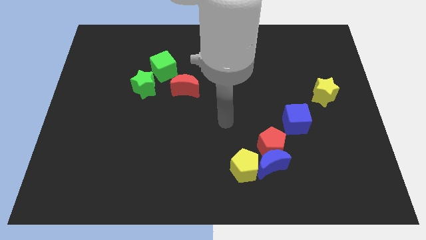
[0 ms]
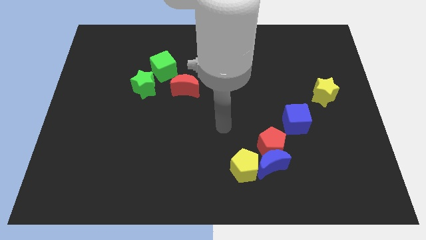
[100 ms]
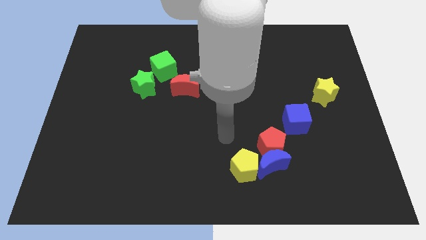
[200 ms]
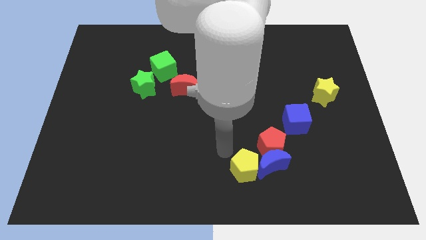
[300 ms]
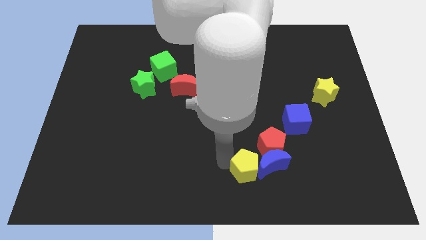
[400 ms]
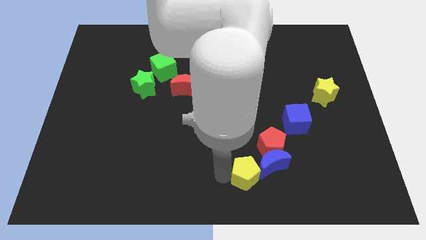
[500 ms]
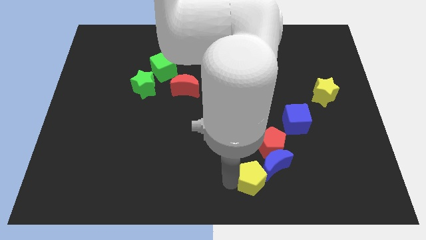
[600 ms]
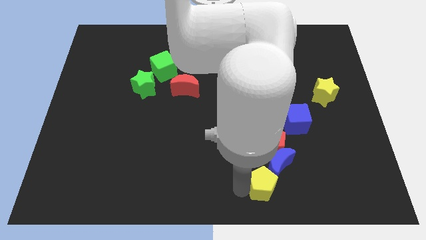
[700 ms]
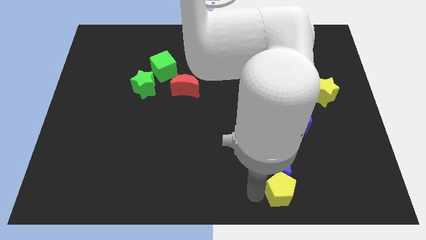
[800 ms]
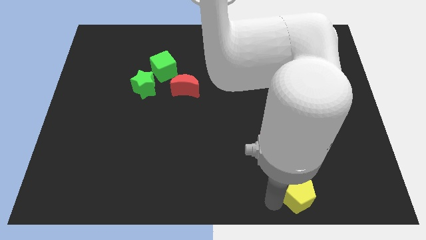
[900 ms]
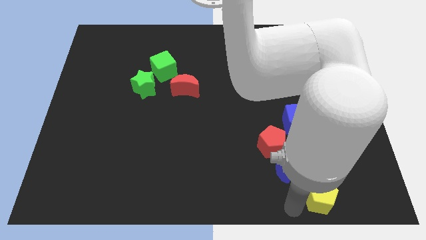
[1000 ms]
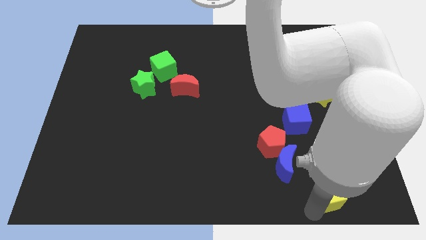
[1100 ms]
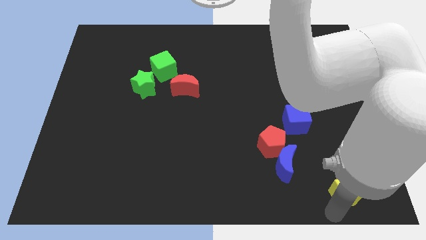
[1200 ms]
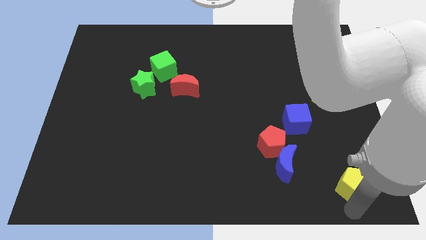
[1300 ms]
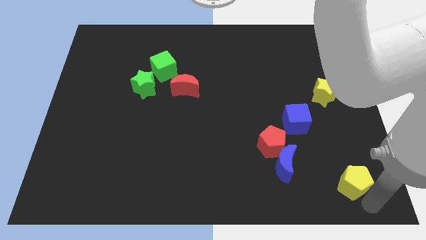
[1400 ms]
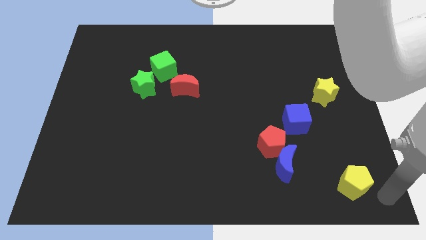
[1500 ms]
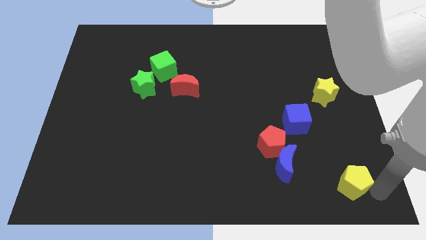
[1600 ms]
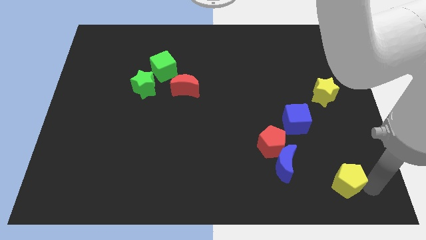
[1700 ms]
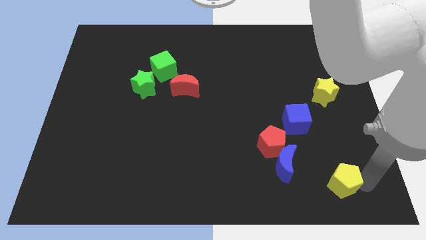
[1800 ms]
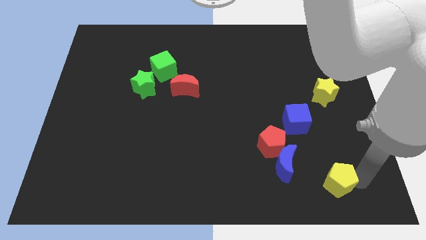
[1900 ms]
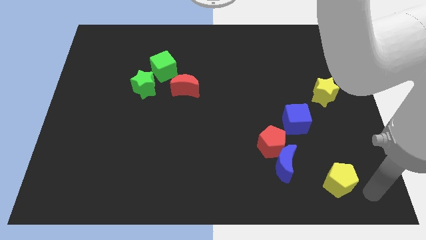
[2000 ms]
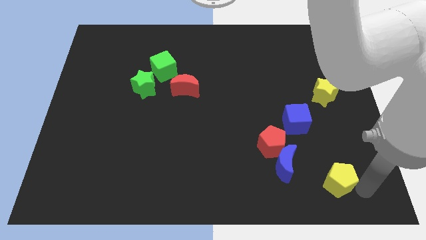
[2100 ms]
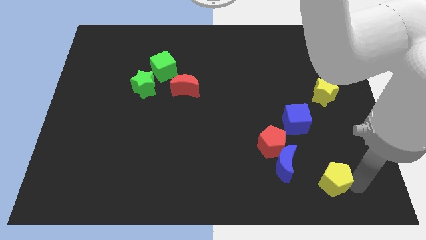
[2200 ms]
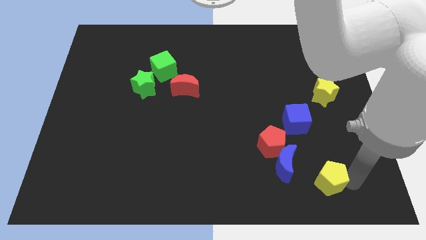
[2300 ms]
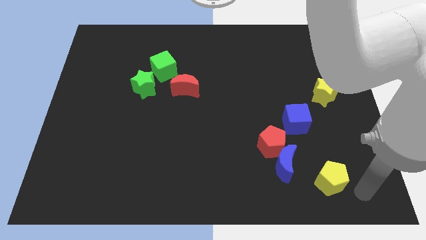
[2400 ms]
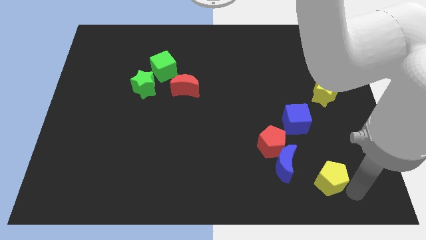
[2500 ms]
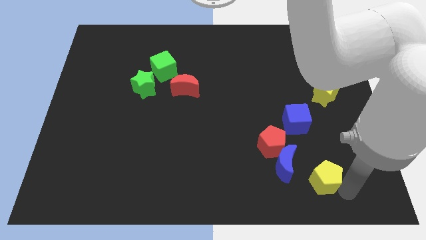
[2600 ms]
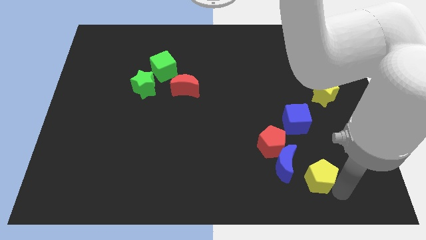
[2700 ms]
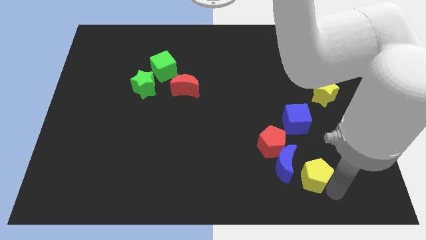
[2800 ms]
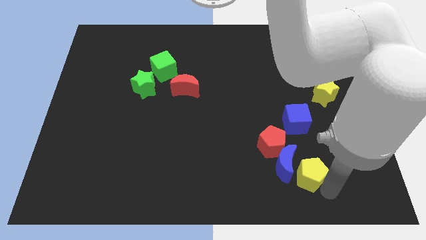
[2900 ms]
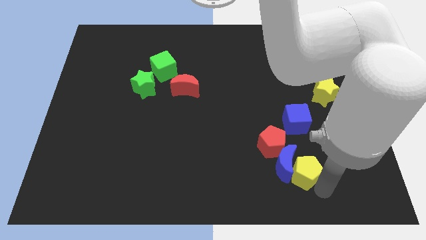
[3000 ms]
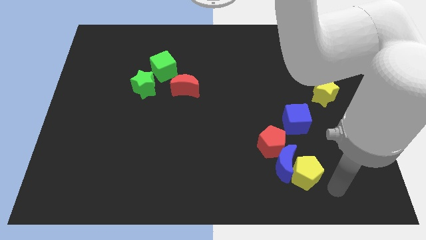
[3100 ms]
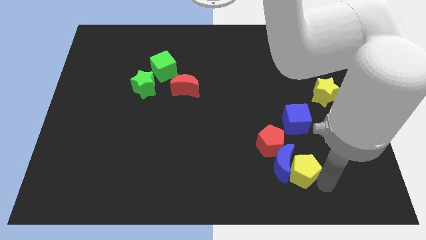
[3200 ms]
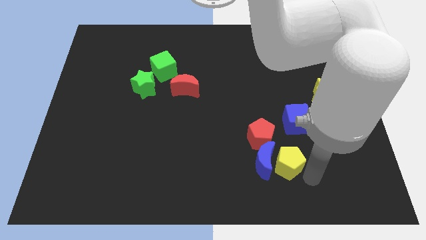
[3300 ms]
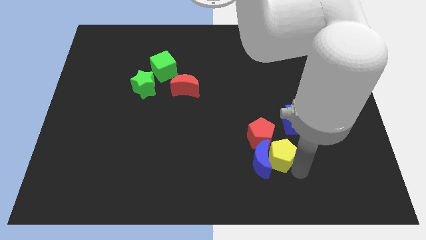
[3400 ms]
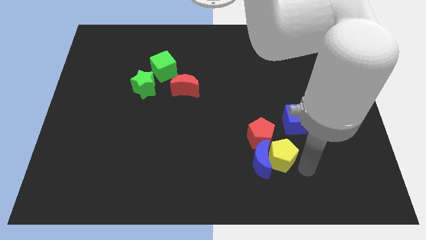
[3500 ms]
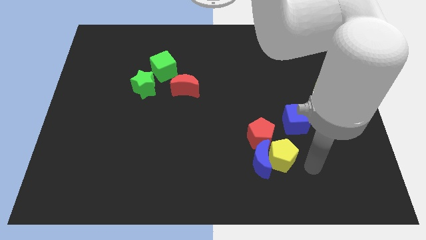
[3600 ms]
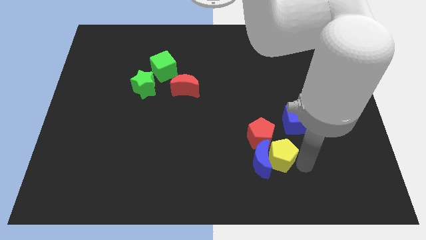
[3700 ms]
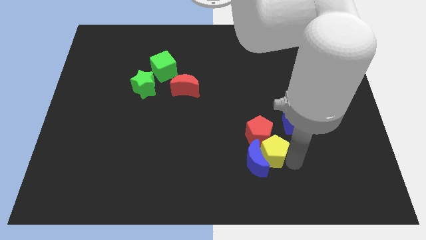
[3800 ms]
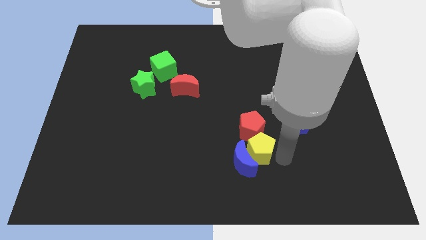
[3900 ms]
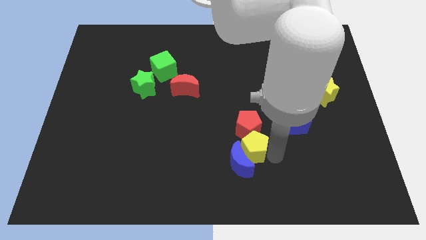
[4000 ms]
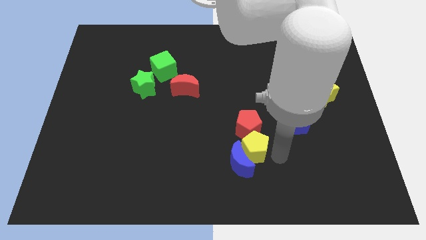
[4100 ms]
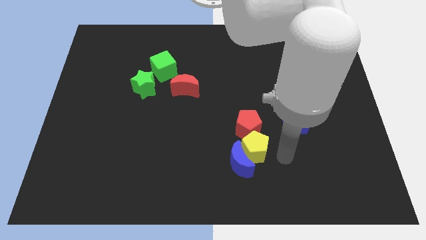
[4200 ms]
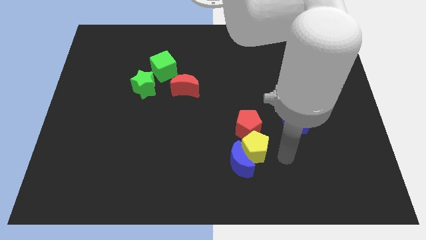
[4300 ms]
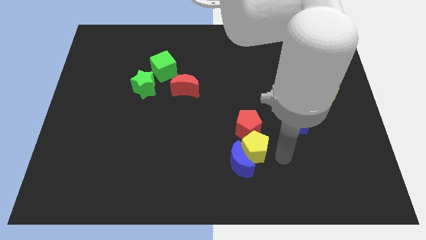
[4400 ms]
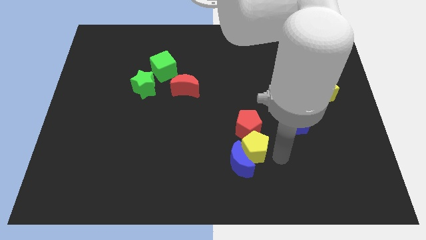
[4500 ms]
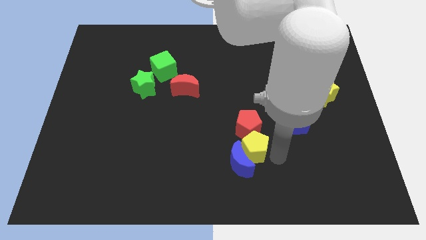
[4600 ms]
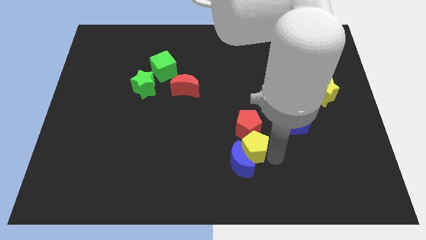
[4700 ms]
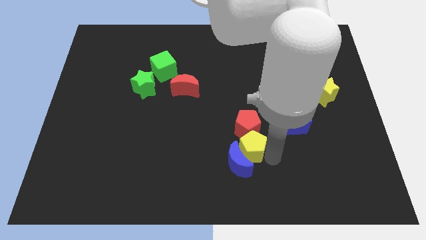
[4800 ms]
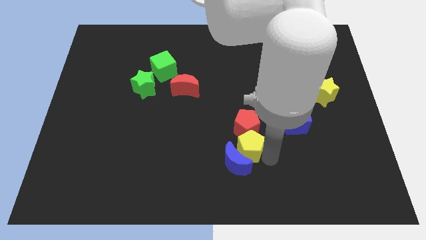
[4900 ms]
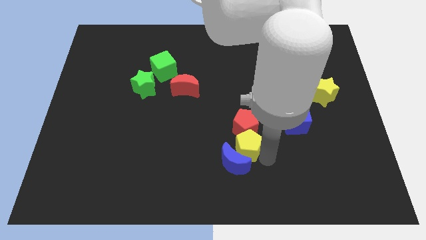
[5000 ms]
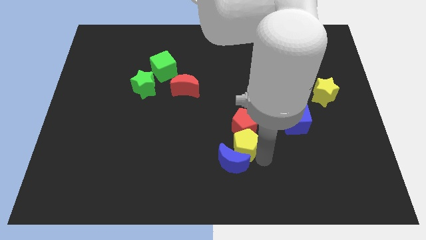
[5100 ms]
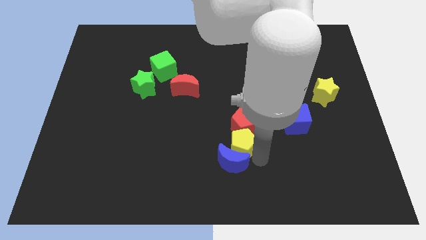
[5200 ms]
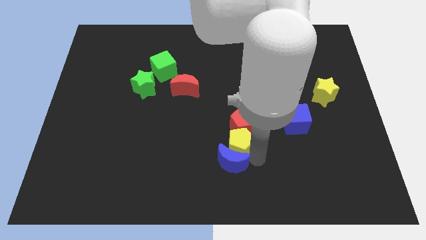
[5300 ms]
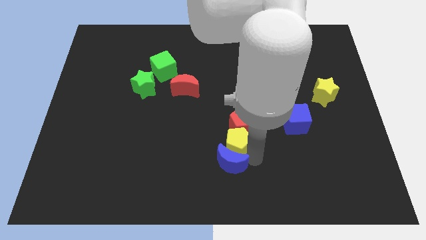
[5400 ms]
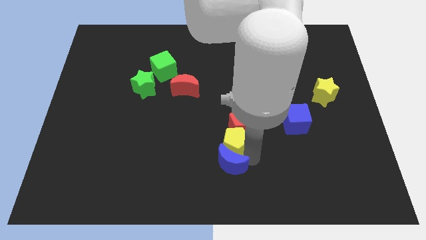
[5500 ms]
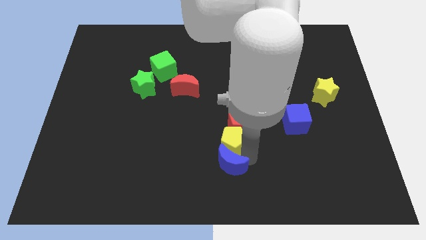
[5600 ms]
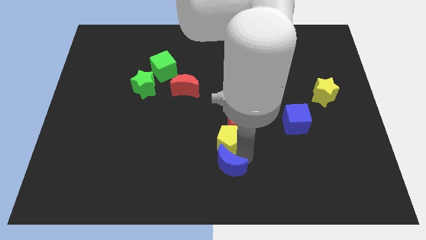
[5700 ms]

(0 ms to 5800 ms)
move the yellow pentagon to the middle

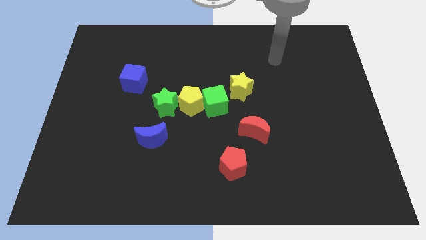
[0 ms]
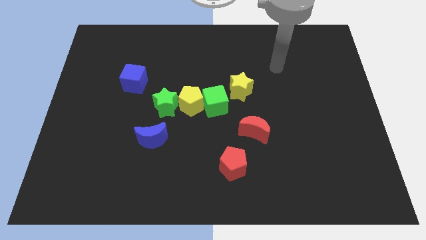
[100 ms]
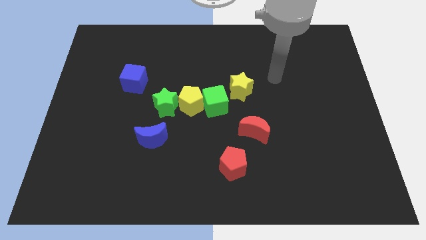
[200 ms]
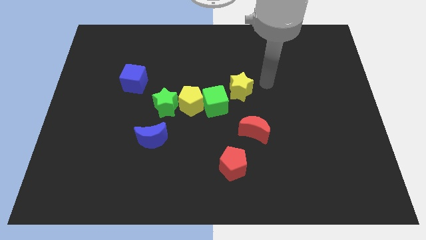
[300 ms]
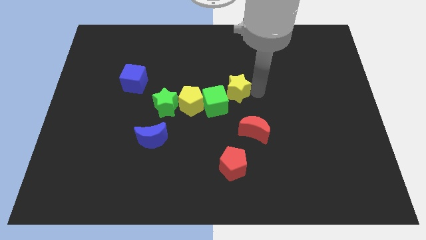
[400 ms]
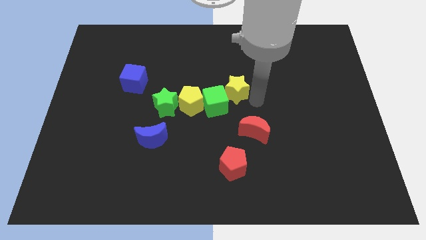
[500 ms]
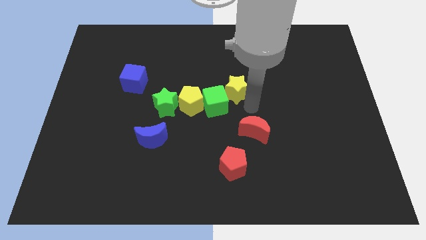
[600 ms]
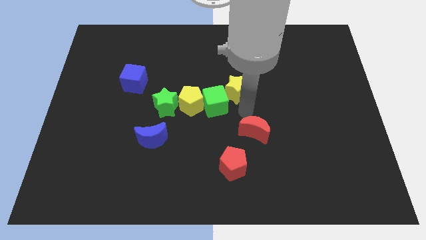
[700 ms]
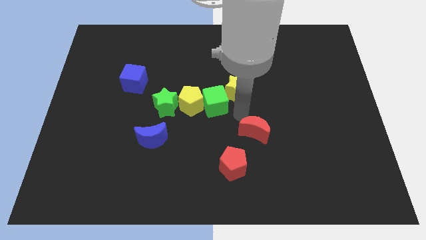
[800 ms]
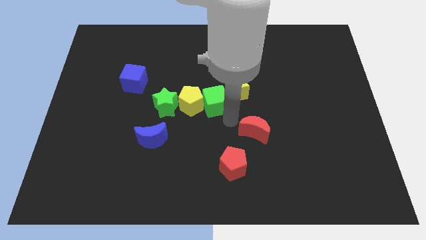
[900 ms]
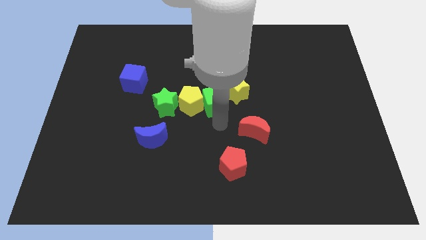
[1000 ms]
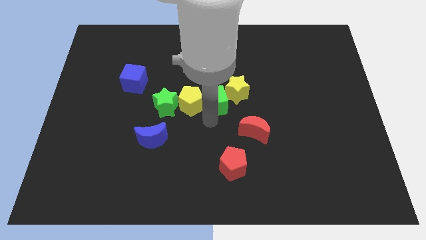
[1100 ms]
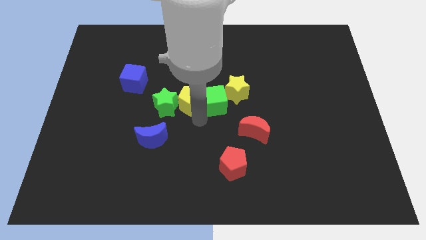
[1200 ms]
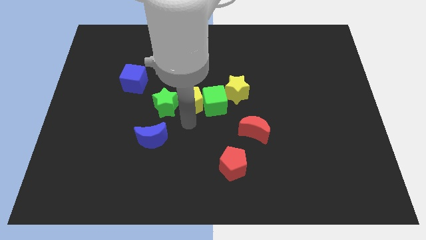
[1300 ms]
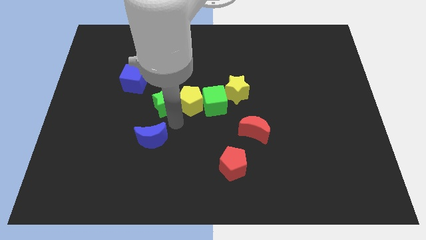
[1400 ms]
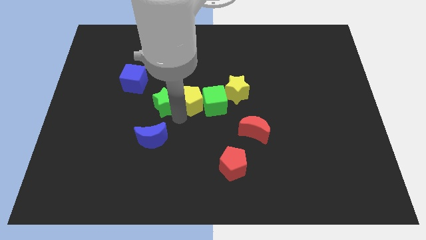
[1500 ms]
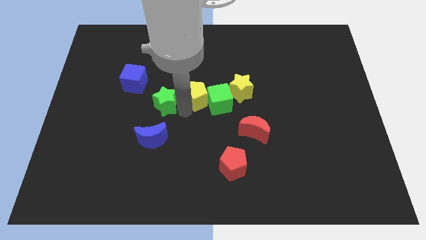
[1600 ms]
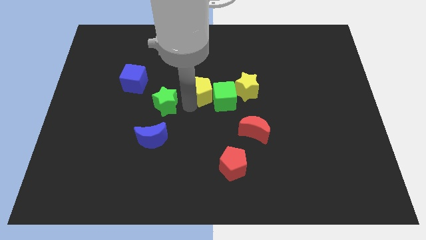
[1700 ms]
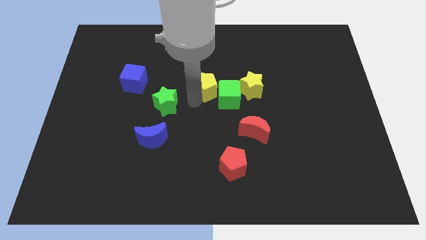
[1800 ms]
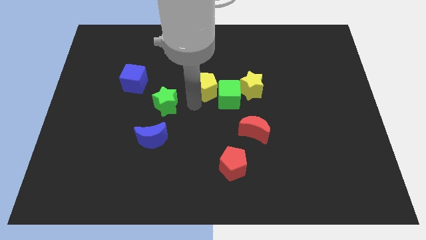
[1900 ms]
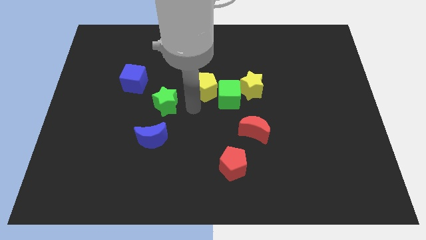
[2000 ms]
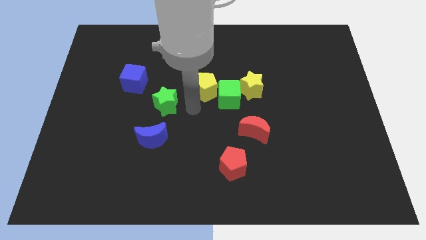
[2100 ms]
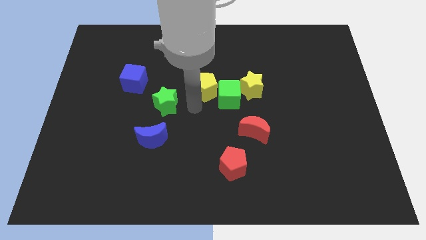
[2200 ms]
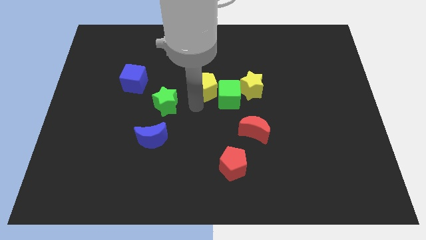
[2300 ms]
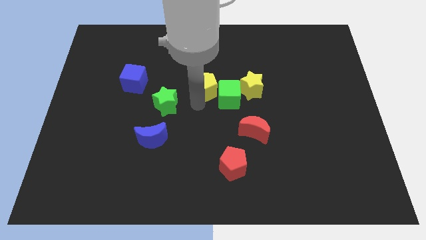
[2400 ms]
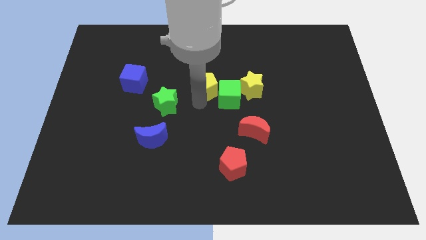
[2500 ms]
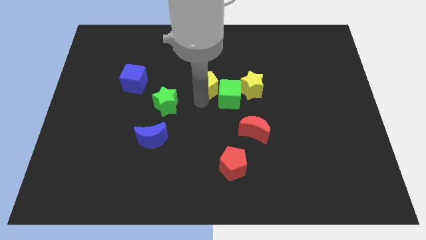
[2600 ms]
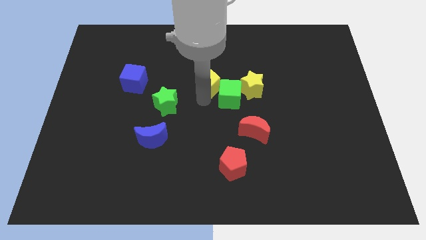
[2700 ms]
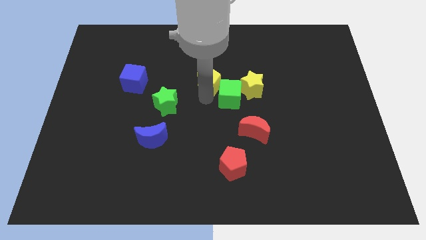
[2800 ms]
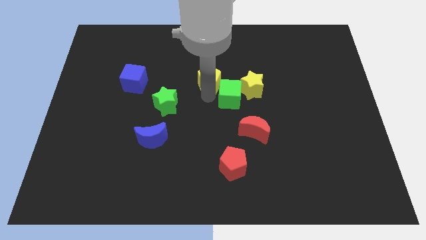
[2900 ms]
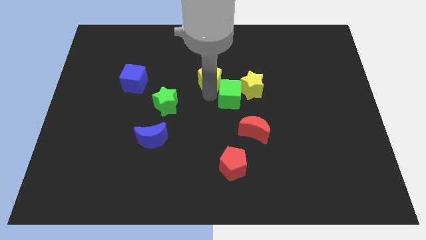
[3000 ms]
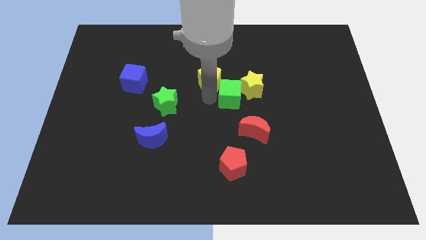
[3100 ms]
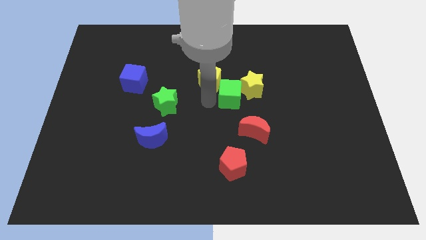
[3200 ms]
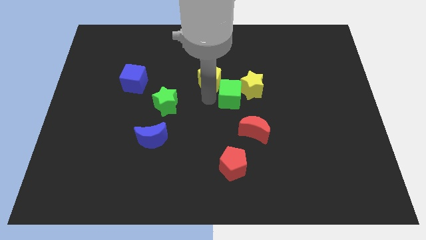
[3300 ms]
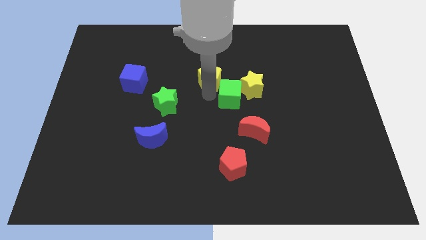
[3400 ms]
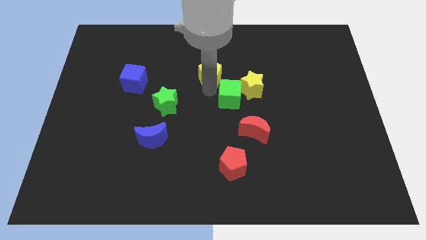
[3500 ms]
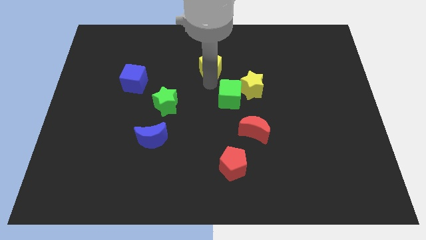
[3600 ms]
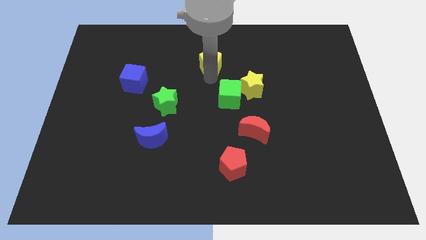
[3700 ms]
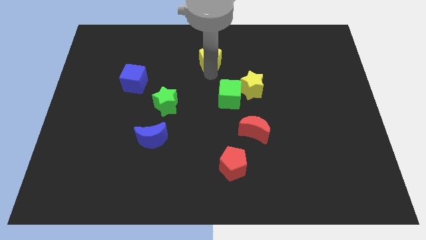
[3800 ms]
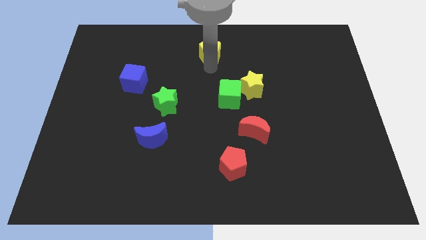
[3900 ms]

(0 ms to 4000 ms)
slide the yellow pentagon to the top side
